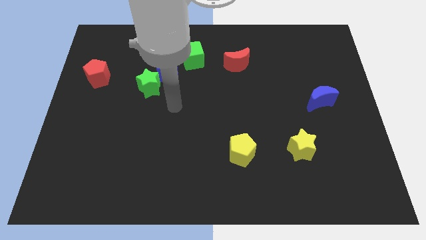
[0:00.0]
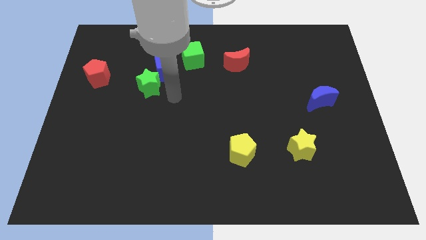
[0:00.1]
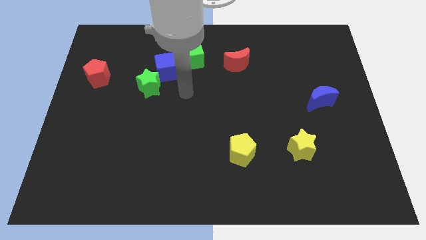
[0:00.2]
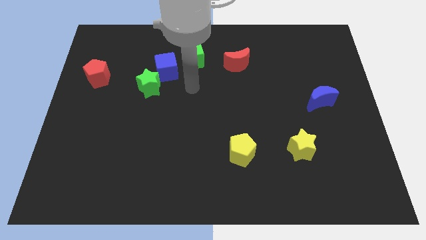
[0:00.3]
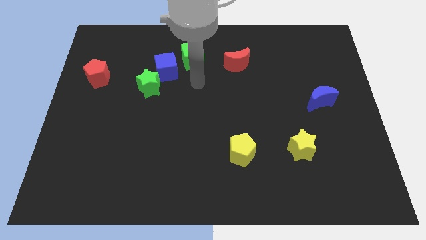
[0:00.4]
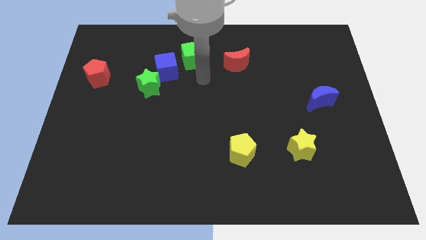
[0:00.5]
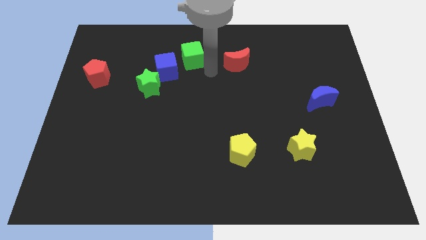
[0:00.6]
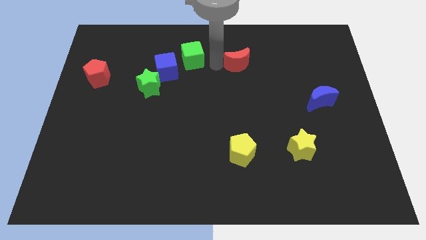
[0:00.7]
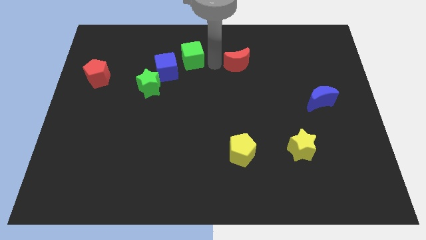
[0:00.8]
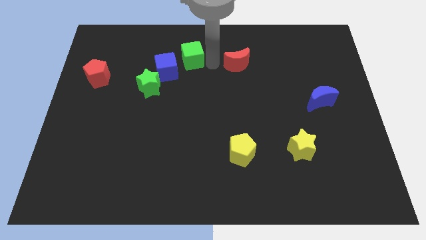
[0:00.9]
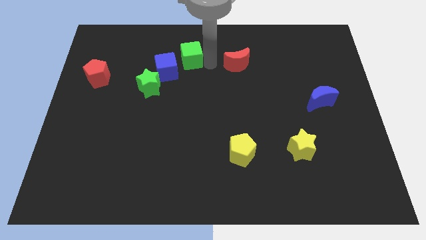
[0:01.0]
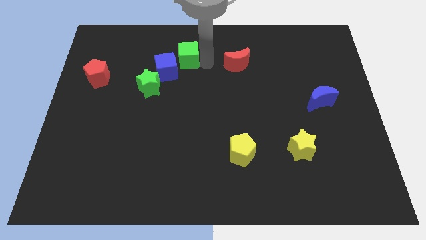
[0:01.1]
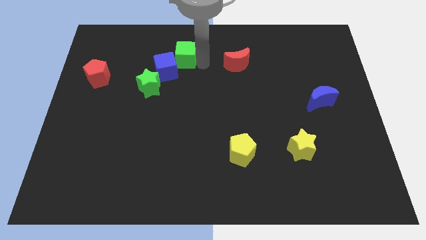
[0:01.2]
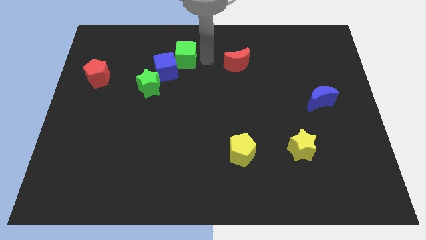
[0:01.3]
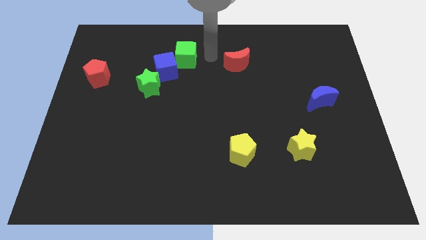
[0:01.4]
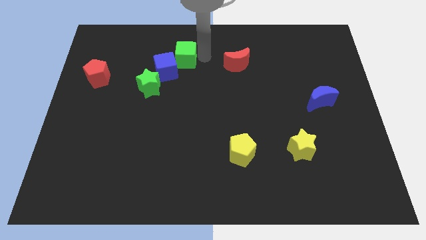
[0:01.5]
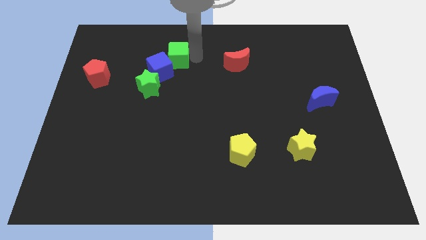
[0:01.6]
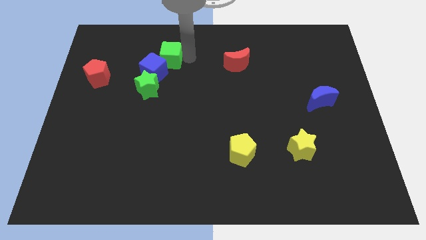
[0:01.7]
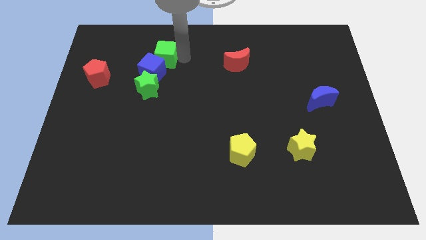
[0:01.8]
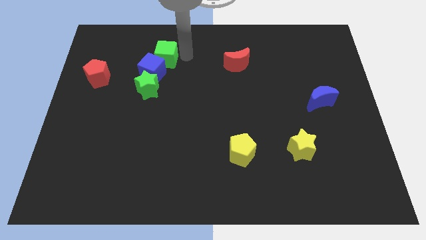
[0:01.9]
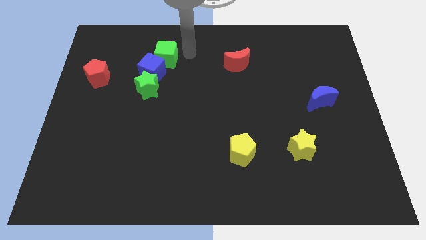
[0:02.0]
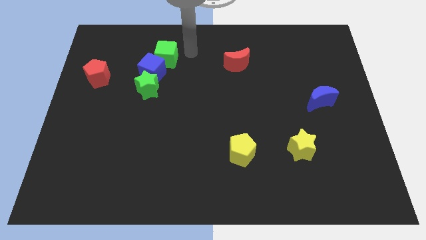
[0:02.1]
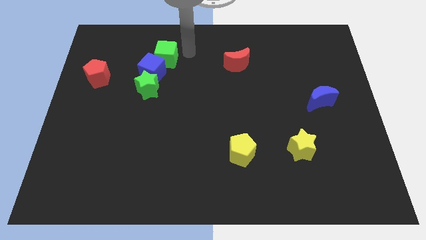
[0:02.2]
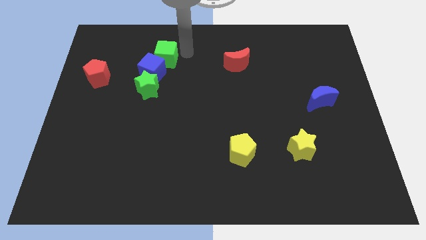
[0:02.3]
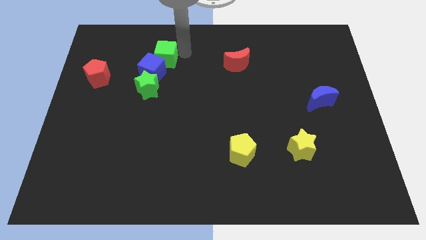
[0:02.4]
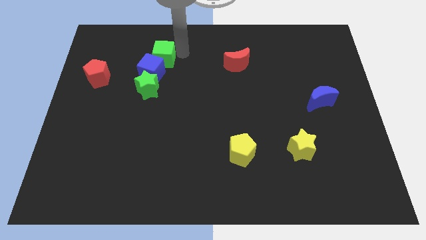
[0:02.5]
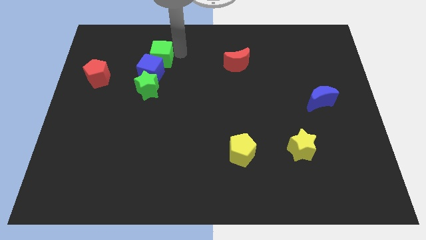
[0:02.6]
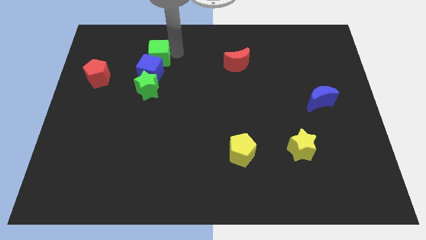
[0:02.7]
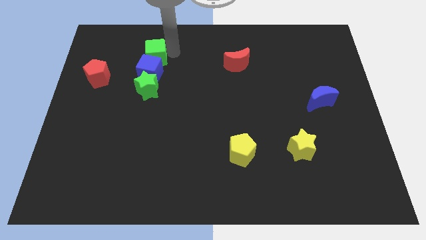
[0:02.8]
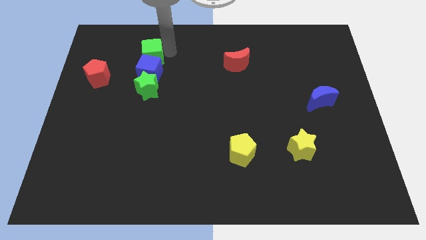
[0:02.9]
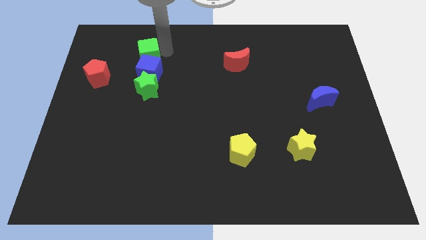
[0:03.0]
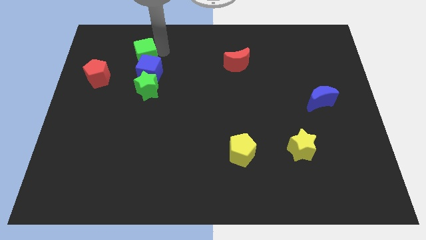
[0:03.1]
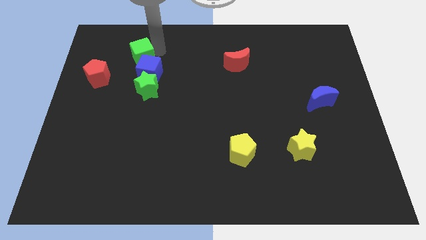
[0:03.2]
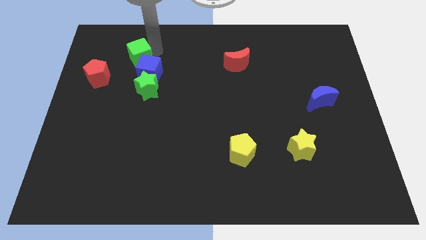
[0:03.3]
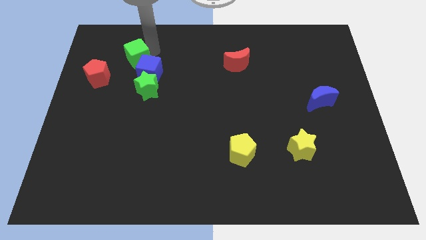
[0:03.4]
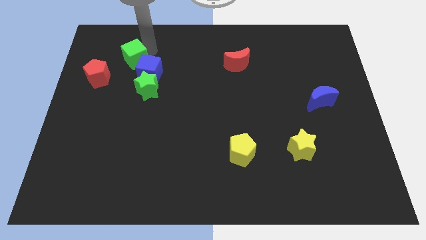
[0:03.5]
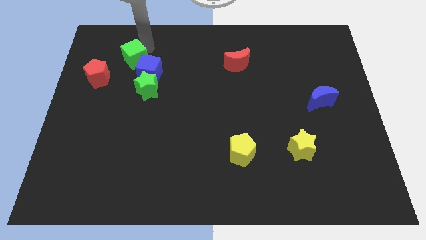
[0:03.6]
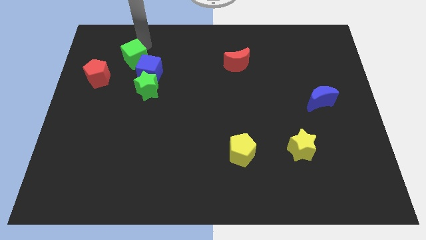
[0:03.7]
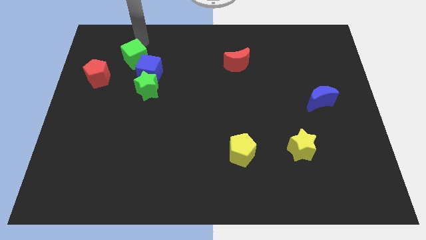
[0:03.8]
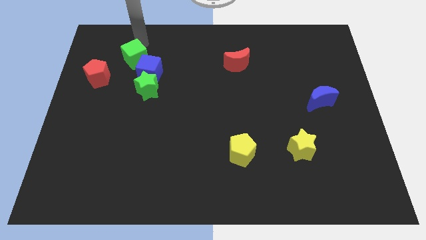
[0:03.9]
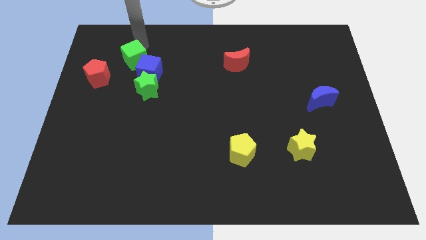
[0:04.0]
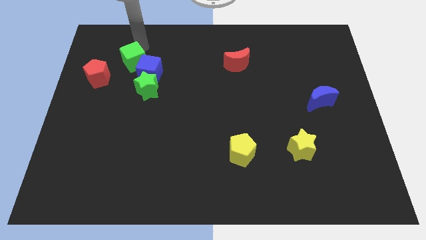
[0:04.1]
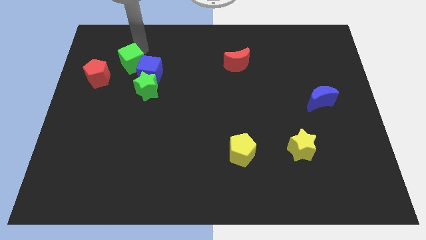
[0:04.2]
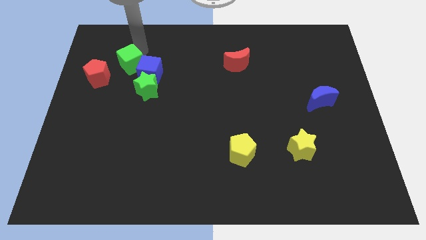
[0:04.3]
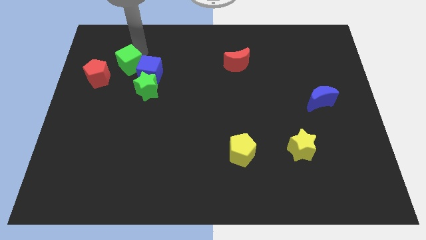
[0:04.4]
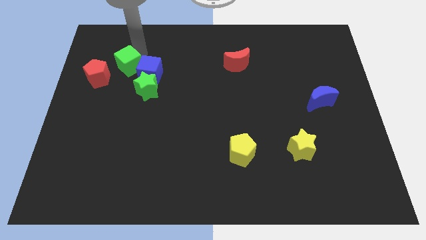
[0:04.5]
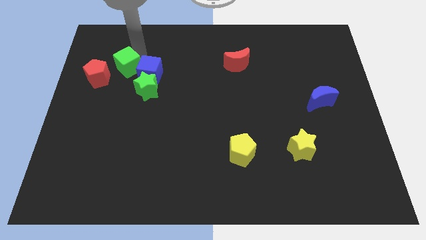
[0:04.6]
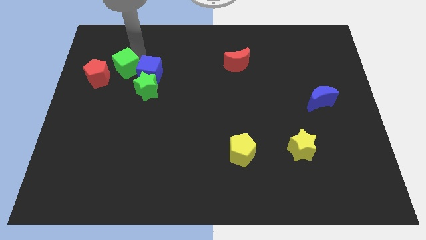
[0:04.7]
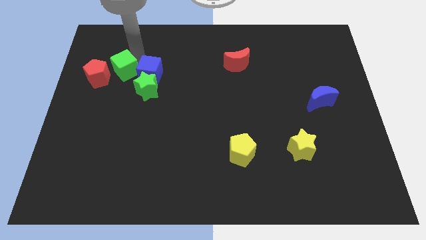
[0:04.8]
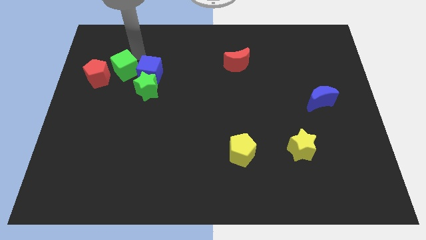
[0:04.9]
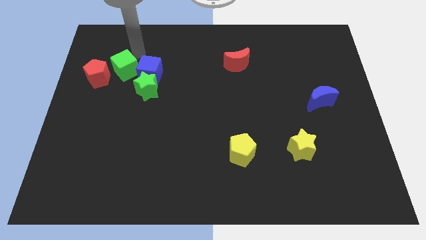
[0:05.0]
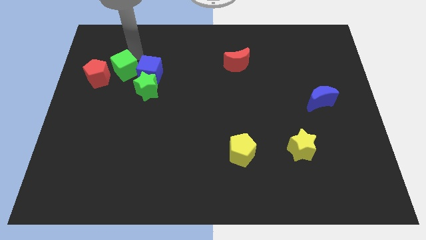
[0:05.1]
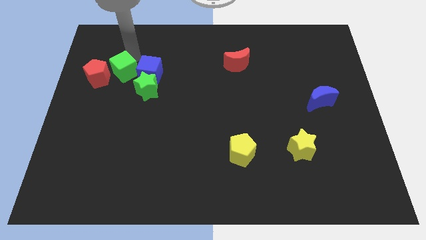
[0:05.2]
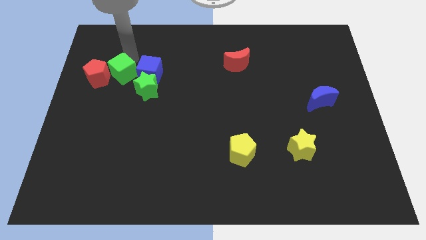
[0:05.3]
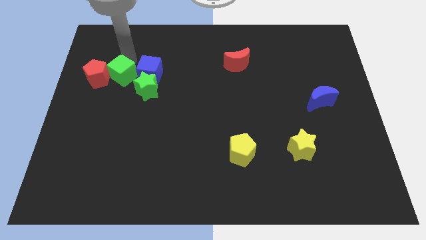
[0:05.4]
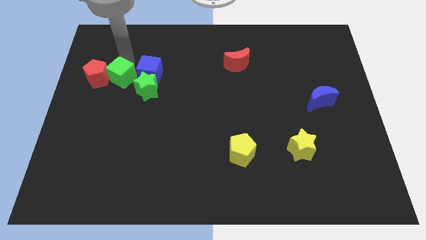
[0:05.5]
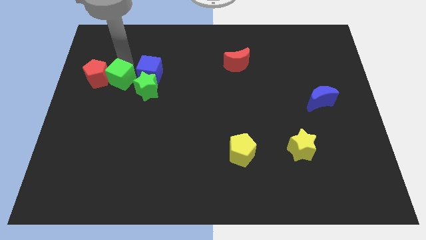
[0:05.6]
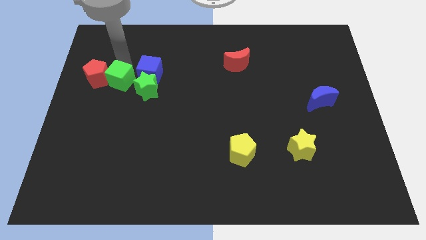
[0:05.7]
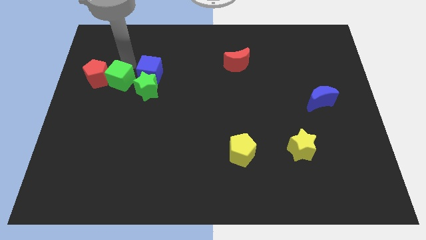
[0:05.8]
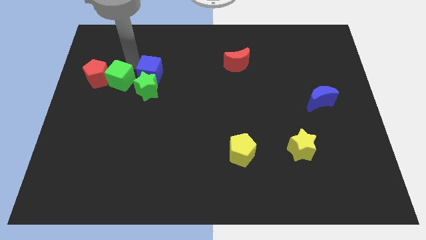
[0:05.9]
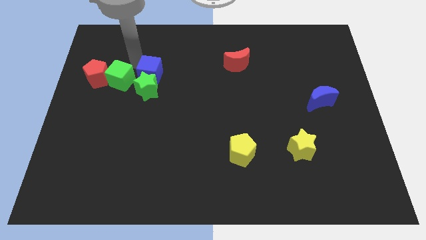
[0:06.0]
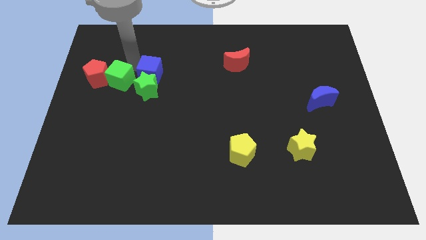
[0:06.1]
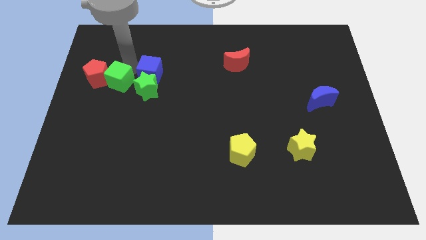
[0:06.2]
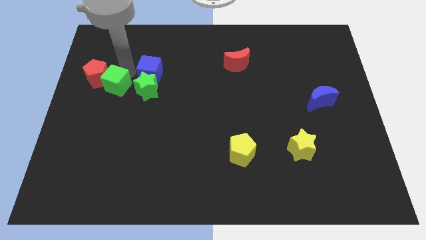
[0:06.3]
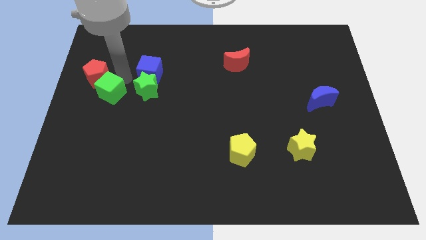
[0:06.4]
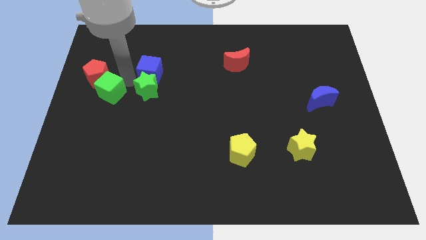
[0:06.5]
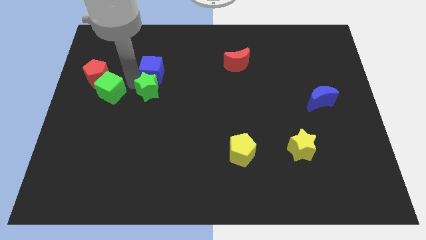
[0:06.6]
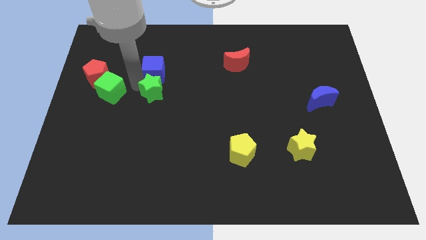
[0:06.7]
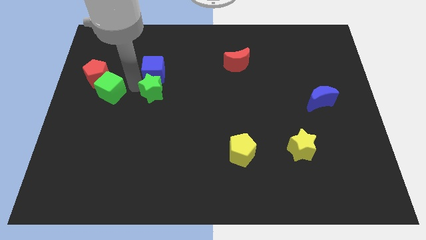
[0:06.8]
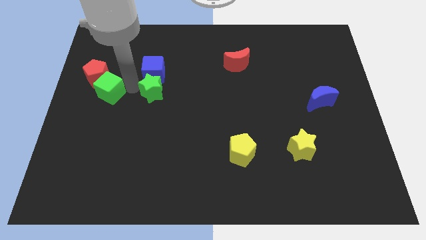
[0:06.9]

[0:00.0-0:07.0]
push the green cube to the left side of the board

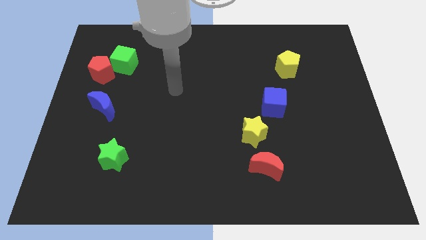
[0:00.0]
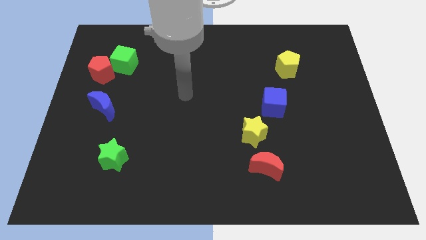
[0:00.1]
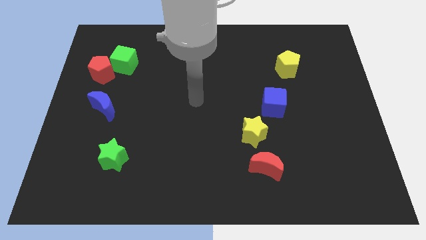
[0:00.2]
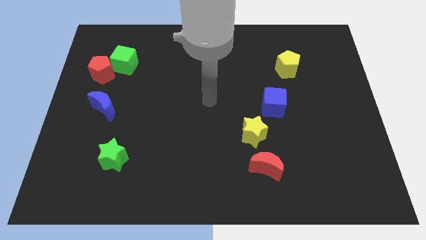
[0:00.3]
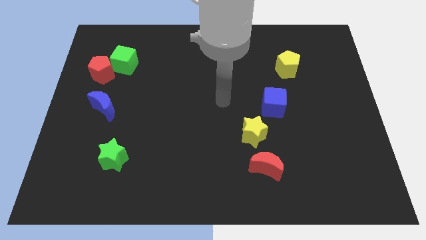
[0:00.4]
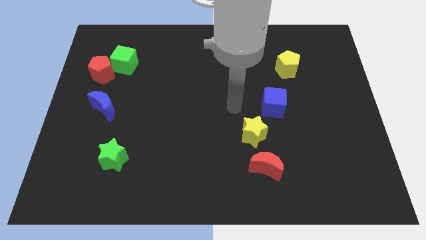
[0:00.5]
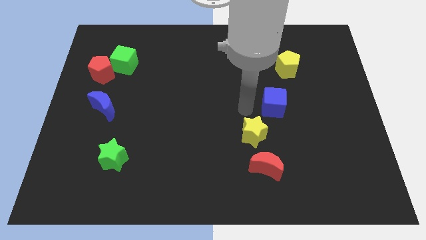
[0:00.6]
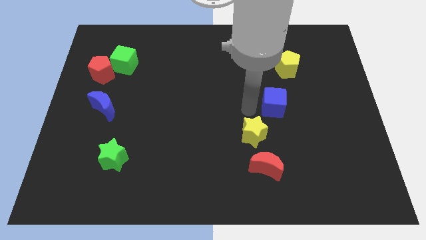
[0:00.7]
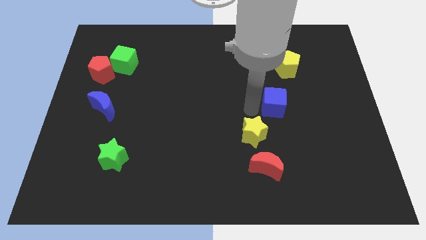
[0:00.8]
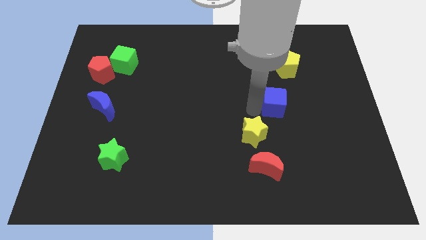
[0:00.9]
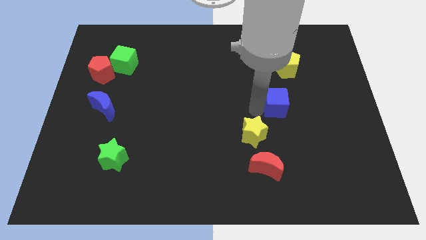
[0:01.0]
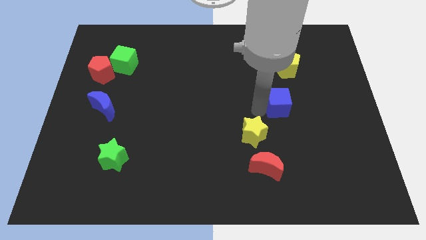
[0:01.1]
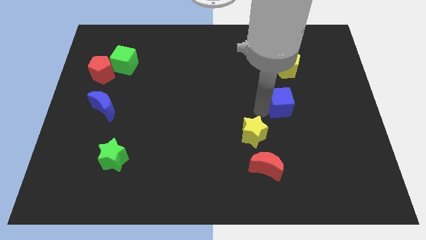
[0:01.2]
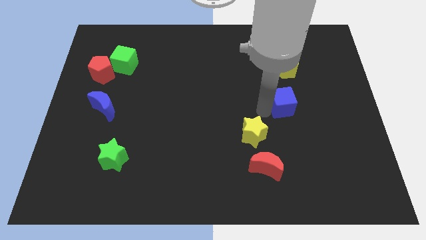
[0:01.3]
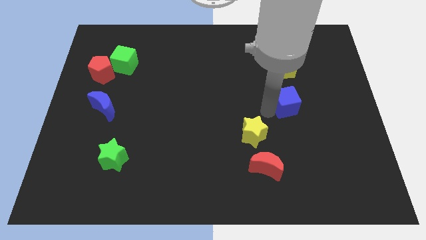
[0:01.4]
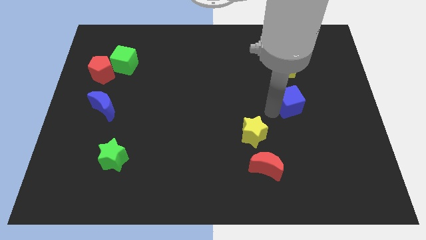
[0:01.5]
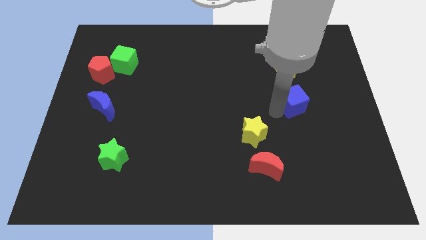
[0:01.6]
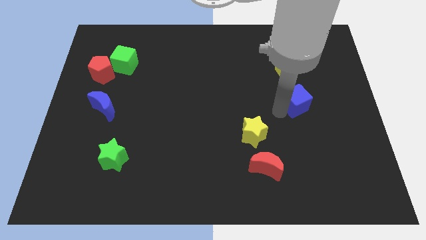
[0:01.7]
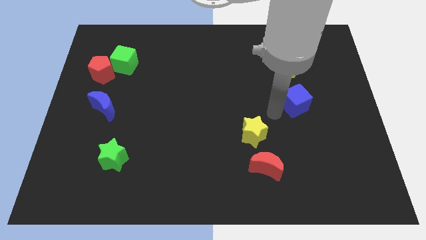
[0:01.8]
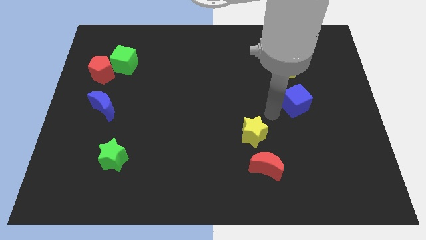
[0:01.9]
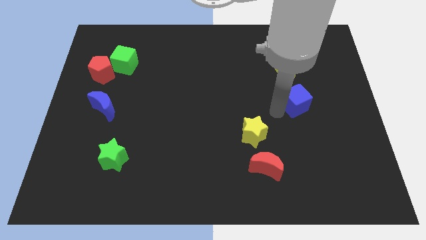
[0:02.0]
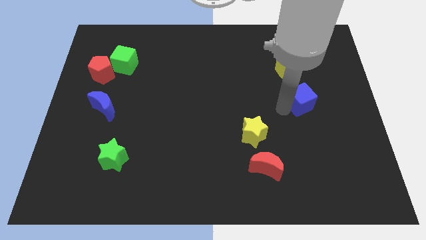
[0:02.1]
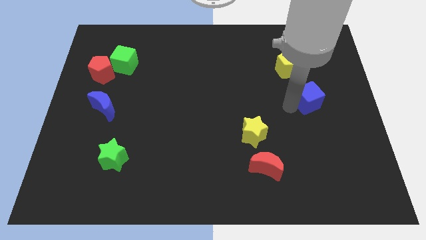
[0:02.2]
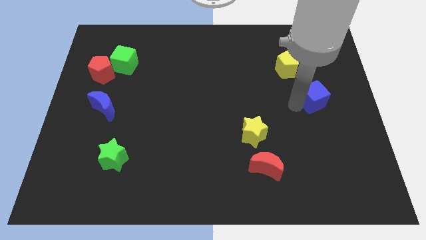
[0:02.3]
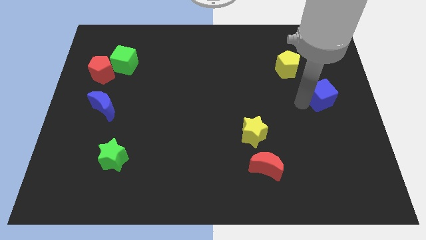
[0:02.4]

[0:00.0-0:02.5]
move the blue cube to the right side of the board
